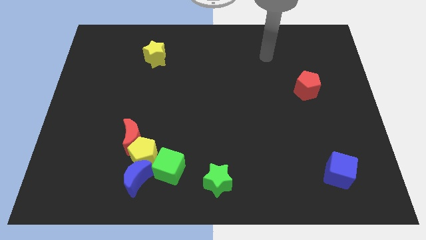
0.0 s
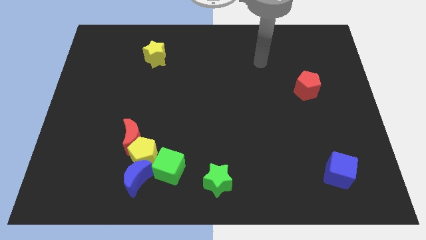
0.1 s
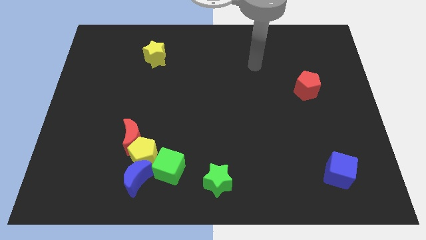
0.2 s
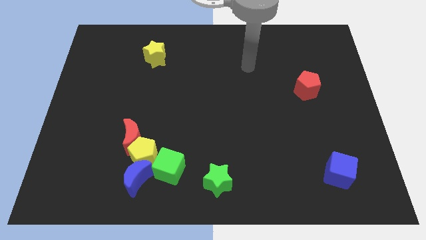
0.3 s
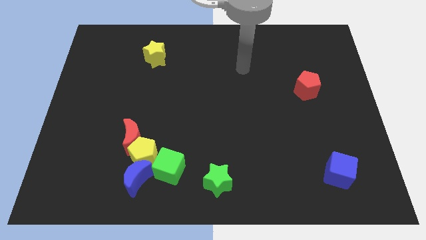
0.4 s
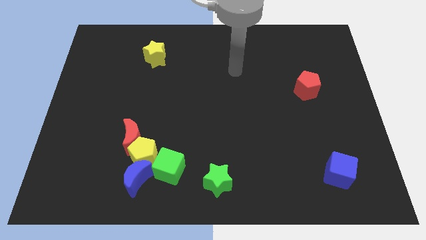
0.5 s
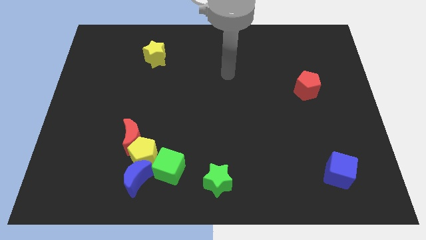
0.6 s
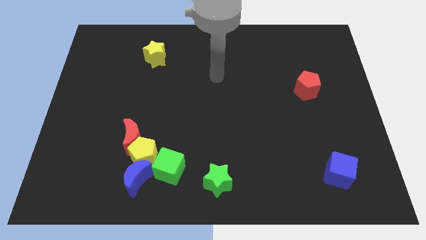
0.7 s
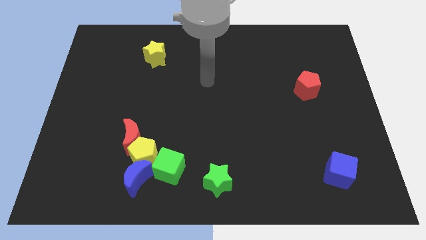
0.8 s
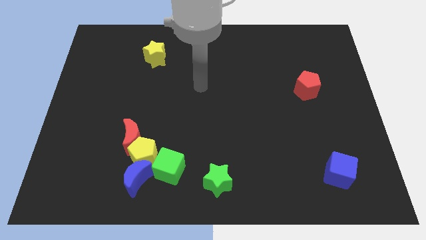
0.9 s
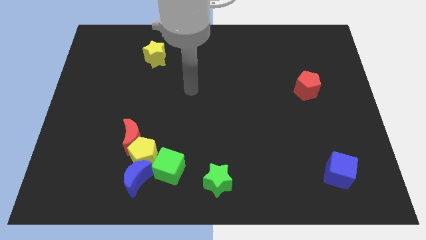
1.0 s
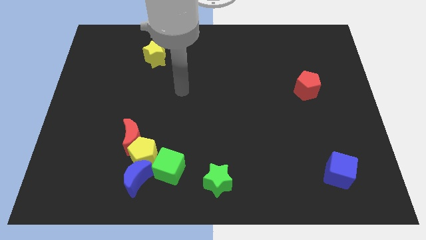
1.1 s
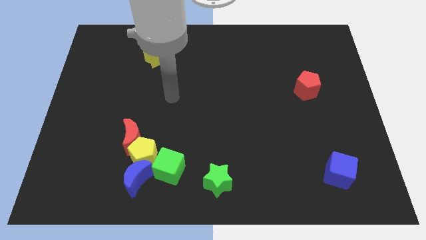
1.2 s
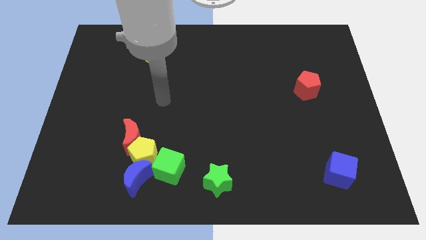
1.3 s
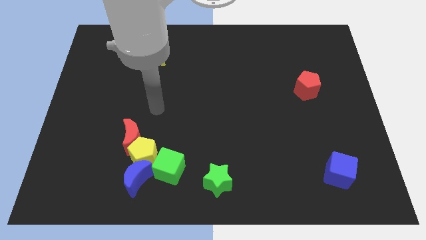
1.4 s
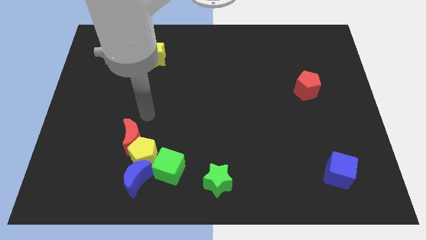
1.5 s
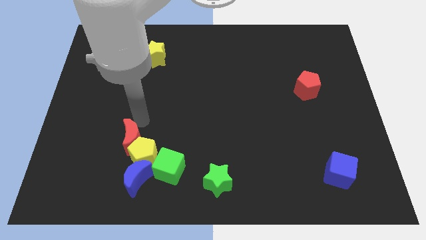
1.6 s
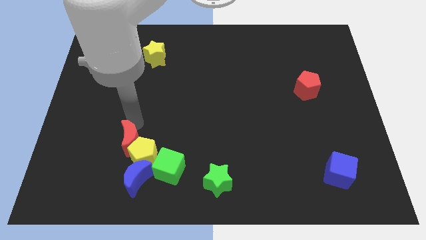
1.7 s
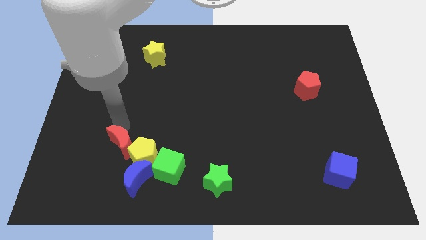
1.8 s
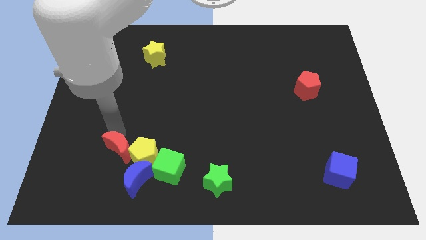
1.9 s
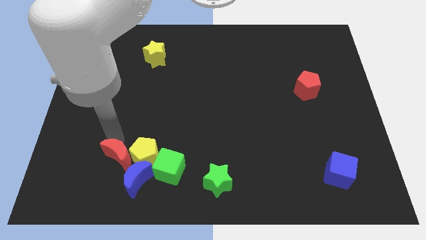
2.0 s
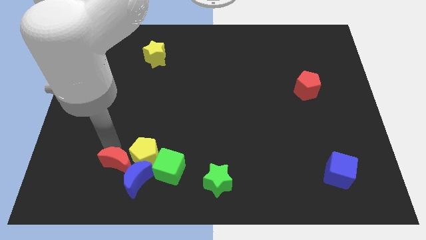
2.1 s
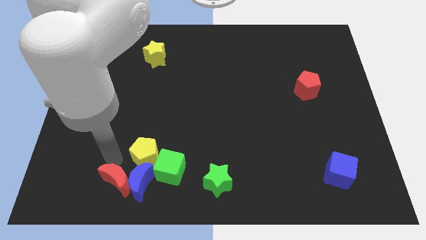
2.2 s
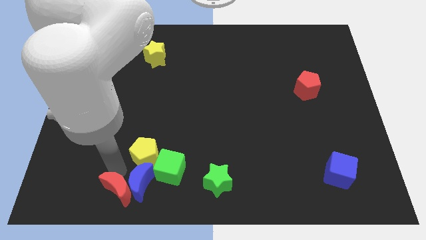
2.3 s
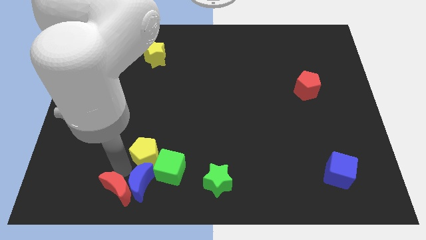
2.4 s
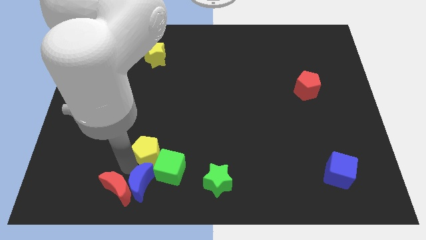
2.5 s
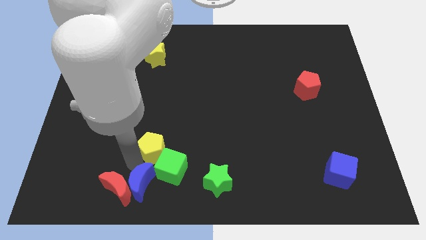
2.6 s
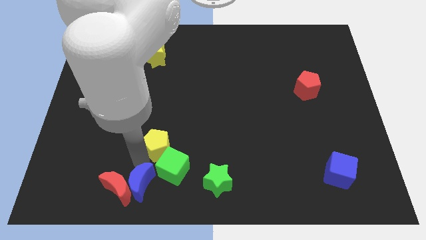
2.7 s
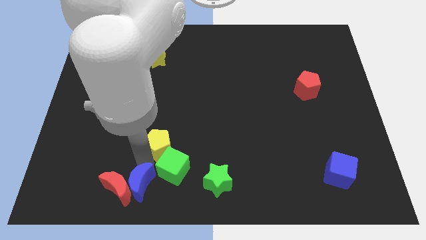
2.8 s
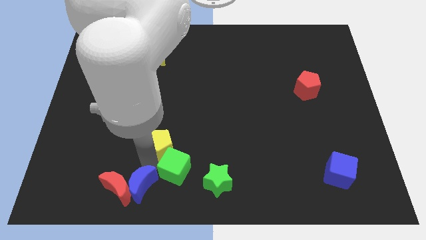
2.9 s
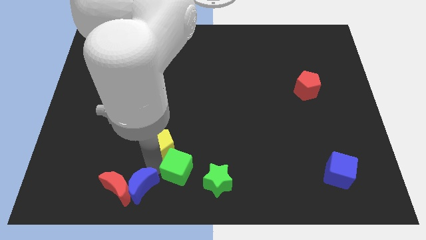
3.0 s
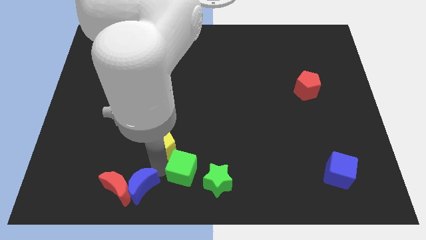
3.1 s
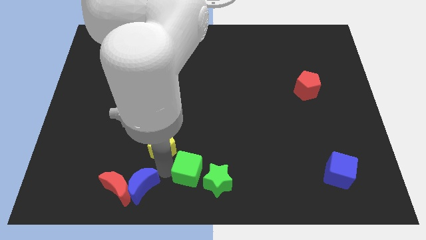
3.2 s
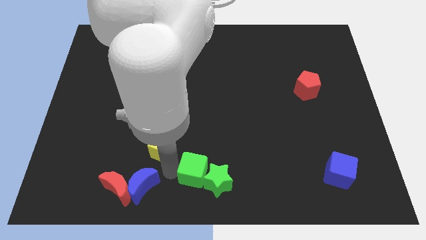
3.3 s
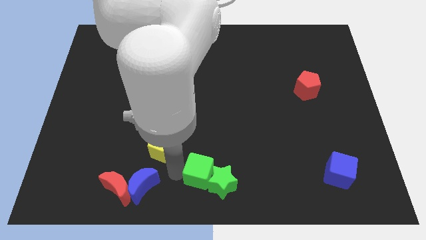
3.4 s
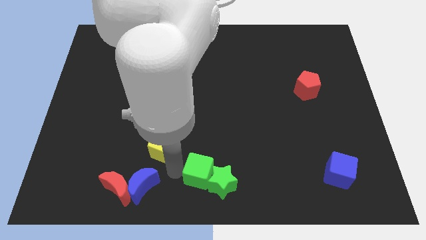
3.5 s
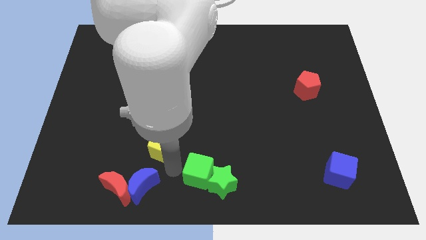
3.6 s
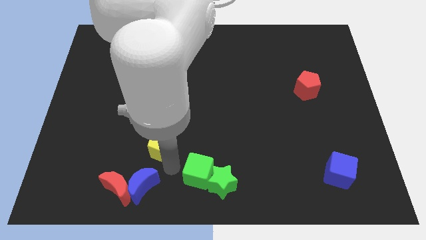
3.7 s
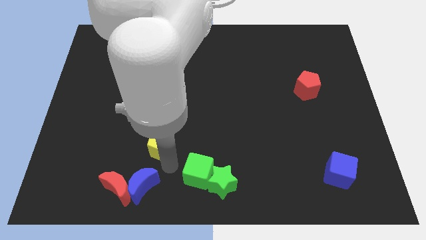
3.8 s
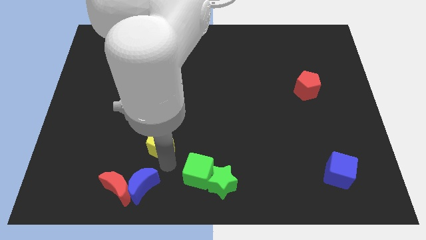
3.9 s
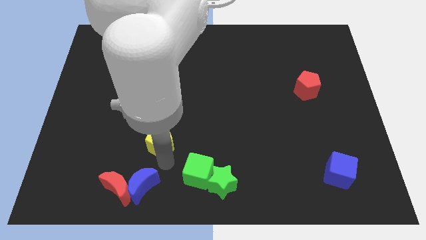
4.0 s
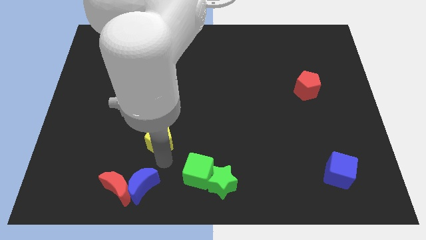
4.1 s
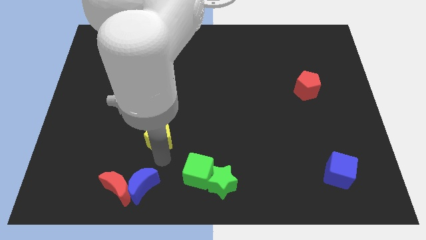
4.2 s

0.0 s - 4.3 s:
pull the yellow pentagon apart from the clump

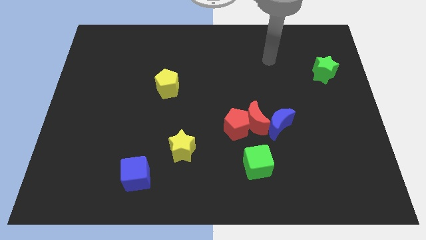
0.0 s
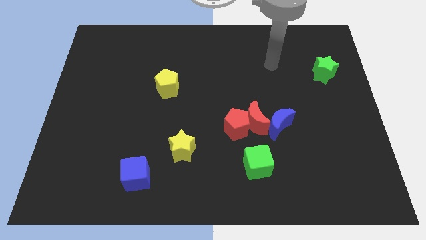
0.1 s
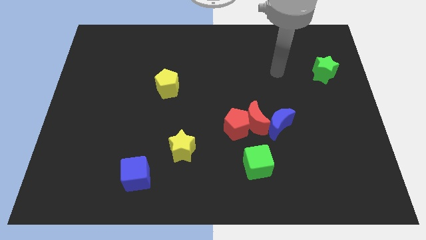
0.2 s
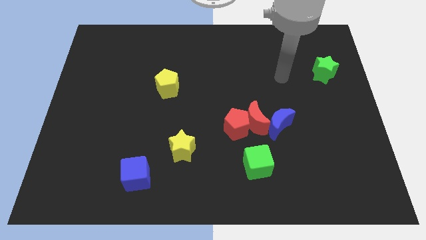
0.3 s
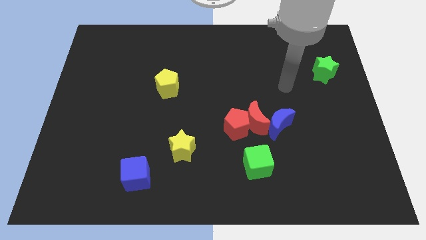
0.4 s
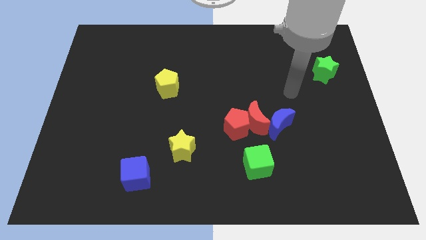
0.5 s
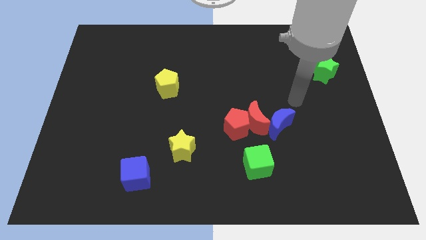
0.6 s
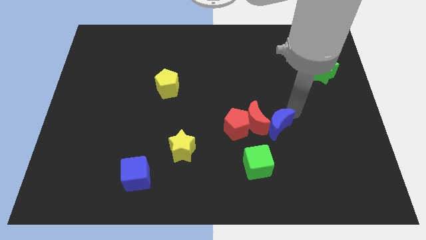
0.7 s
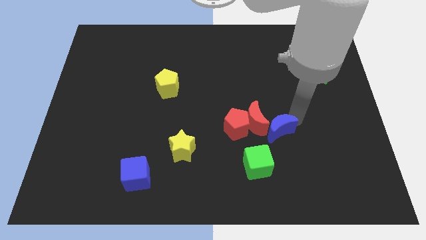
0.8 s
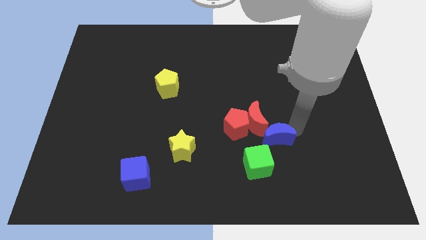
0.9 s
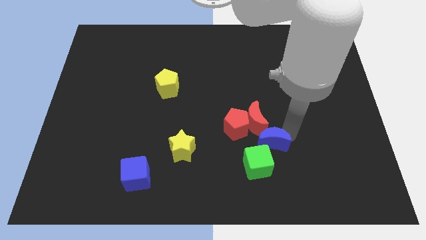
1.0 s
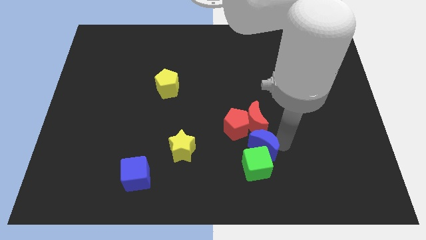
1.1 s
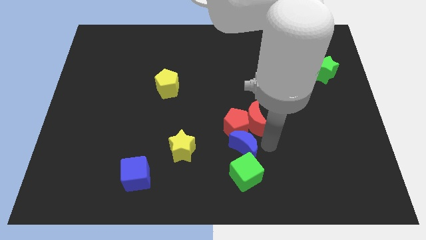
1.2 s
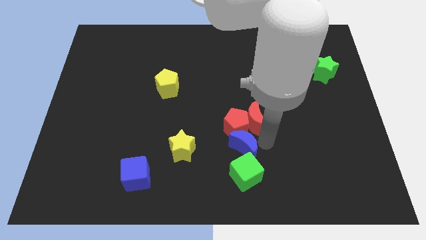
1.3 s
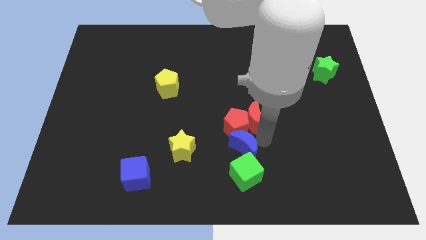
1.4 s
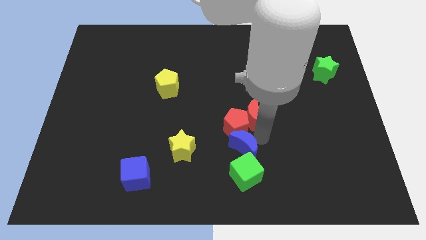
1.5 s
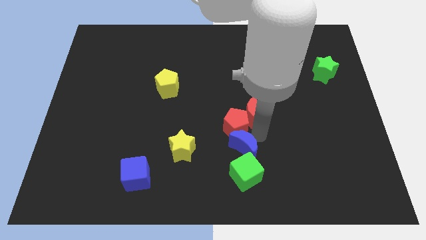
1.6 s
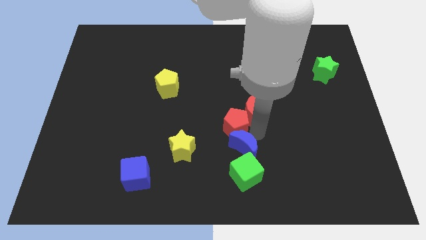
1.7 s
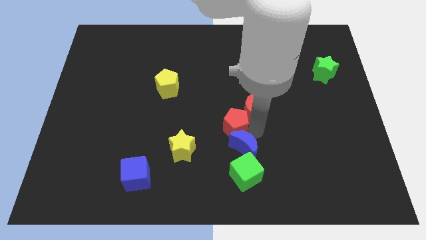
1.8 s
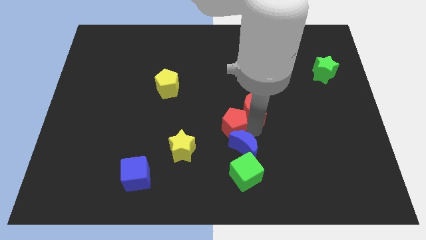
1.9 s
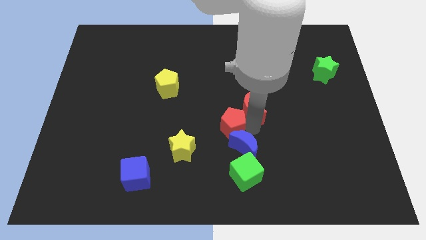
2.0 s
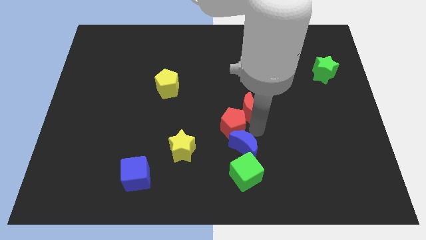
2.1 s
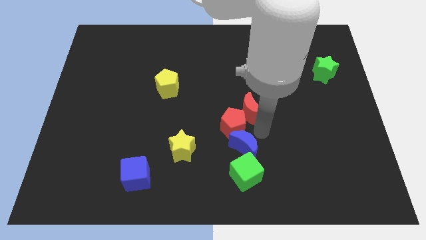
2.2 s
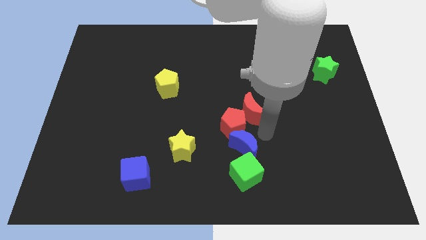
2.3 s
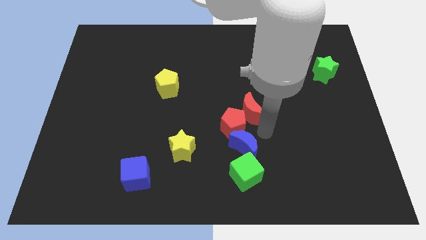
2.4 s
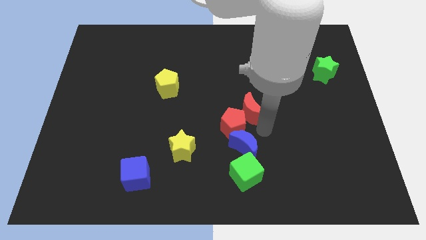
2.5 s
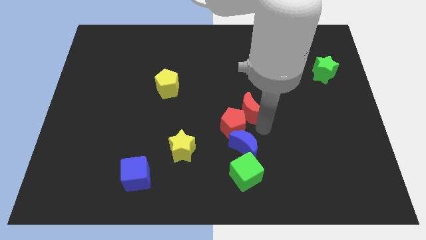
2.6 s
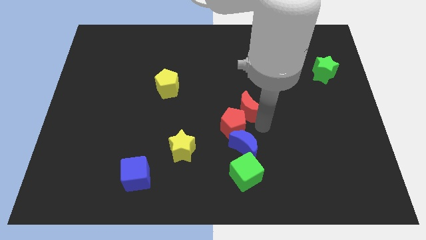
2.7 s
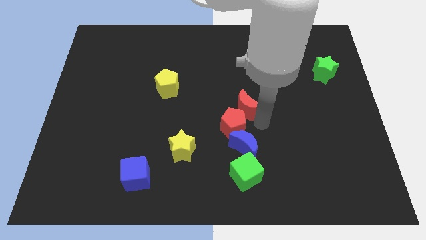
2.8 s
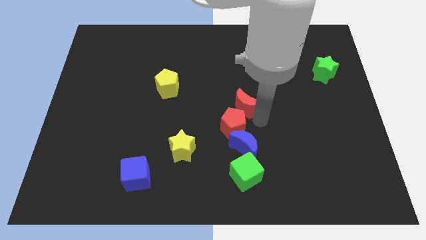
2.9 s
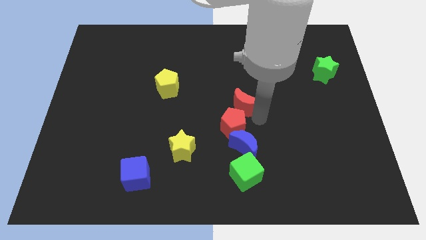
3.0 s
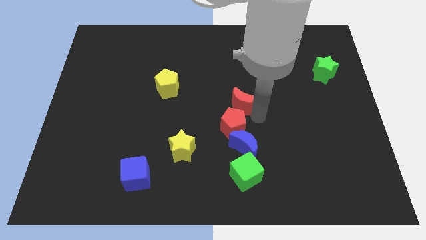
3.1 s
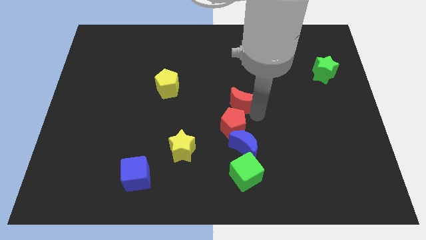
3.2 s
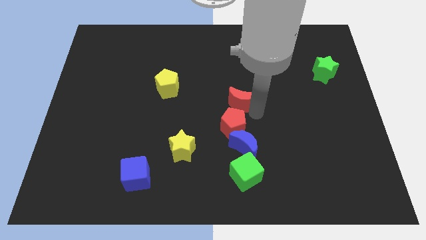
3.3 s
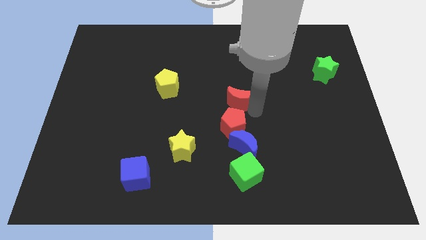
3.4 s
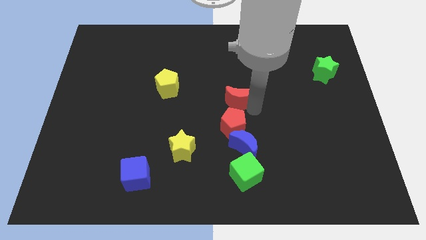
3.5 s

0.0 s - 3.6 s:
separate the red moon from the red pentagon and blue moon

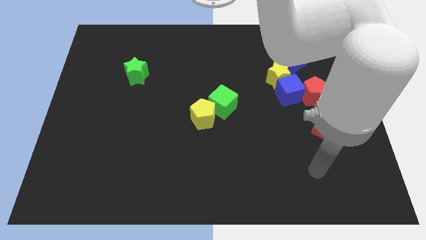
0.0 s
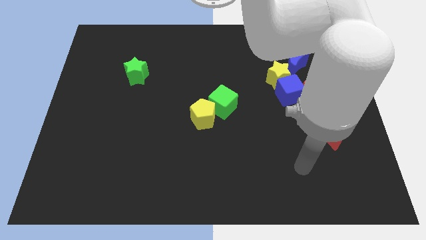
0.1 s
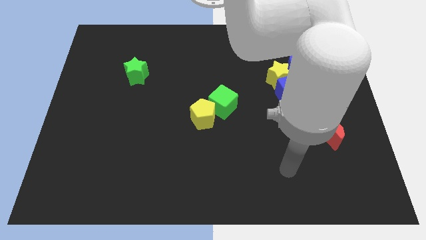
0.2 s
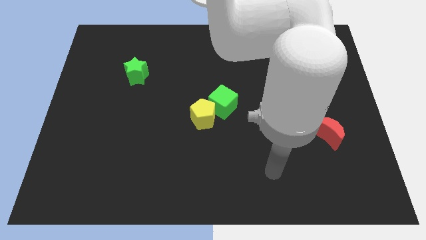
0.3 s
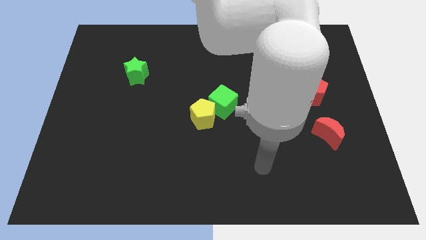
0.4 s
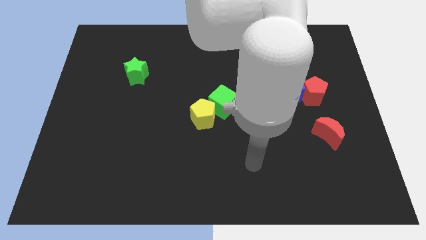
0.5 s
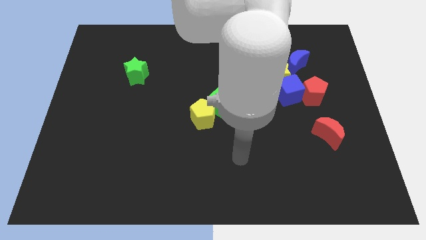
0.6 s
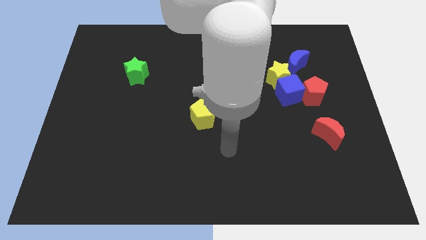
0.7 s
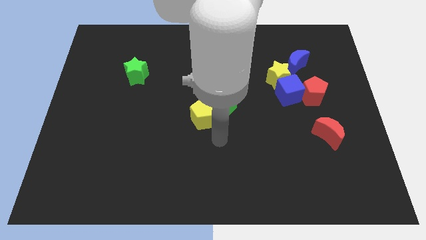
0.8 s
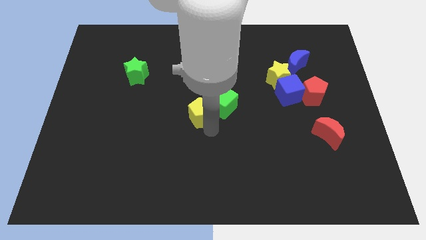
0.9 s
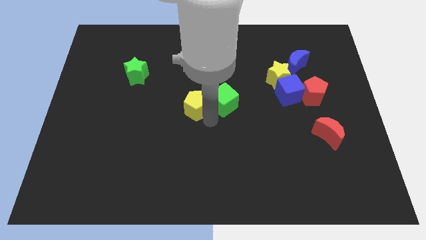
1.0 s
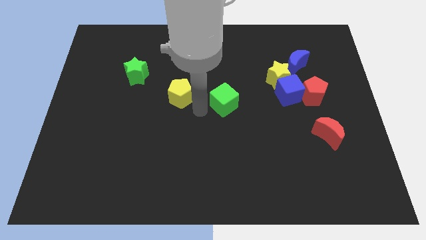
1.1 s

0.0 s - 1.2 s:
move the green cube away from the yellow pentagon

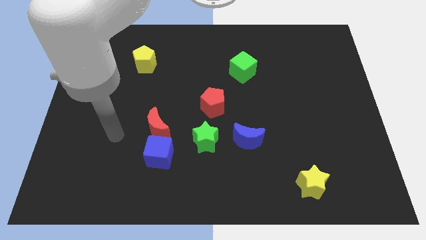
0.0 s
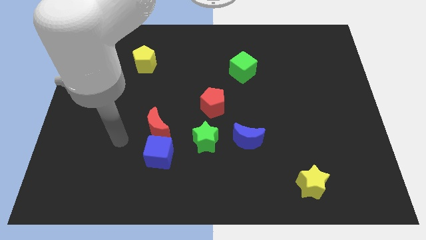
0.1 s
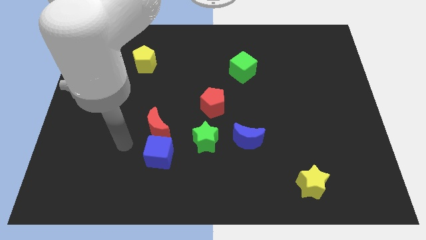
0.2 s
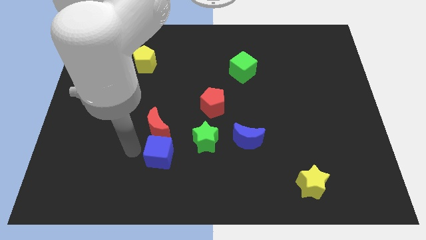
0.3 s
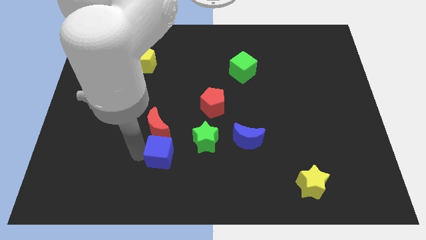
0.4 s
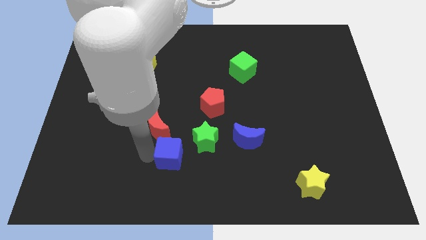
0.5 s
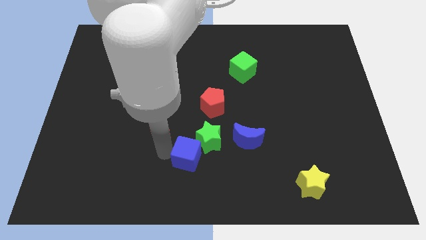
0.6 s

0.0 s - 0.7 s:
move the red moon away from the blue cube
